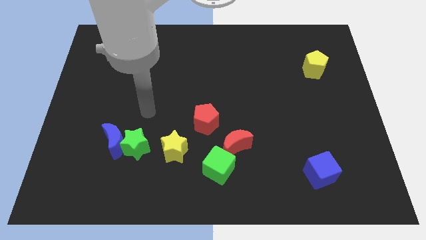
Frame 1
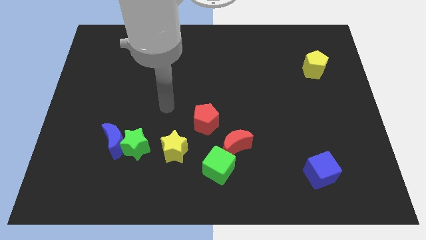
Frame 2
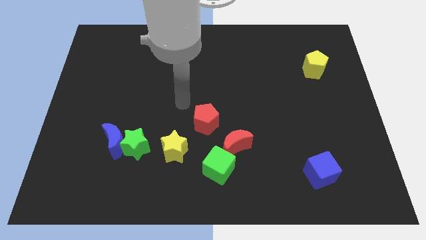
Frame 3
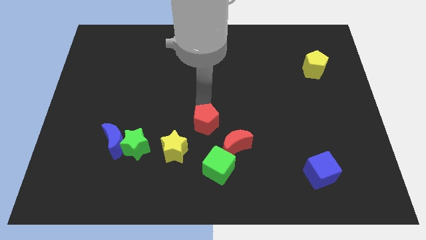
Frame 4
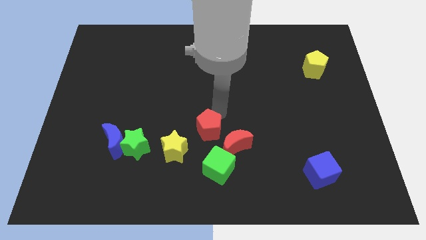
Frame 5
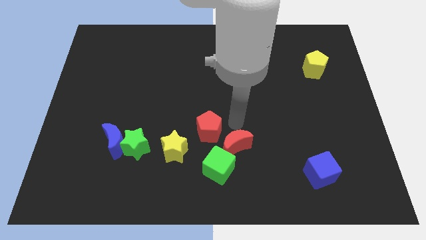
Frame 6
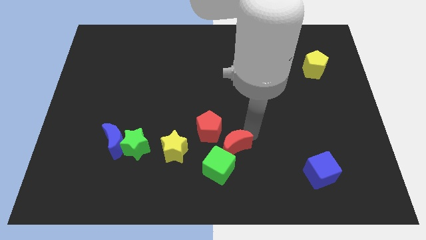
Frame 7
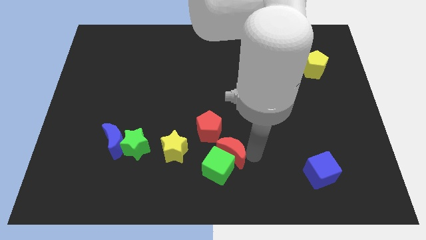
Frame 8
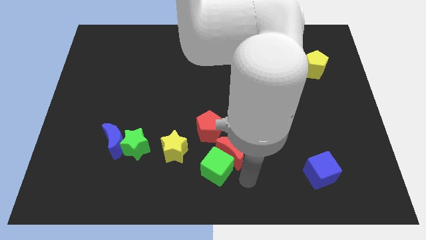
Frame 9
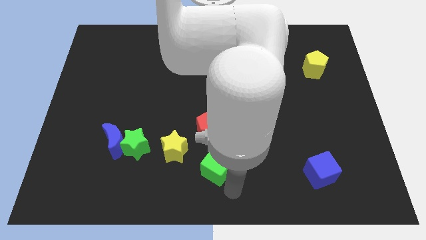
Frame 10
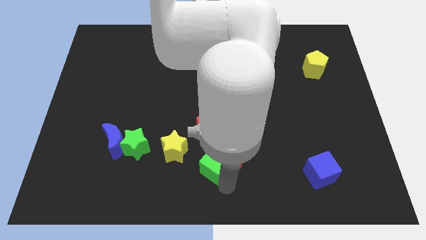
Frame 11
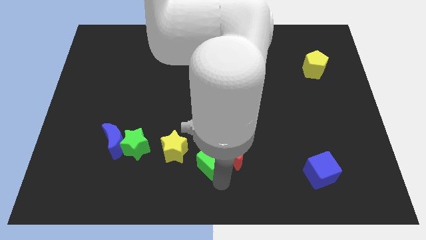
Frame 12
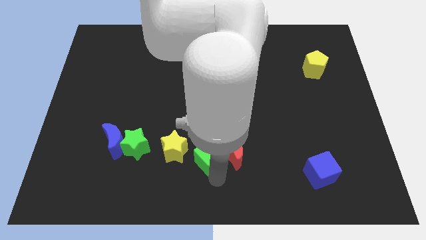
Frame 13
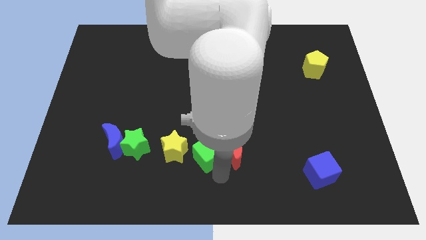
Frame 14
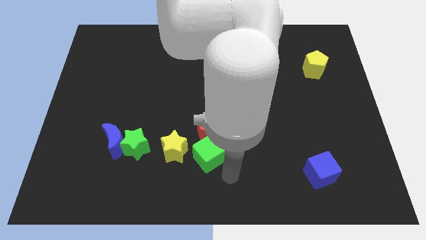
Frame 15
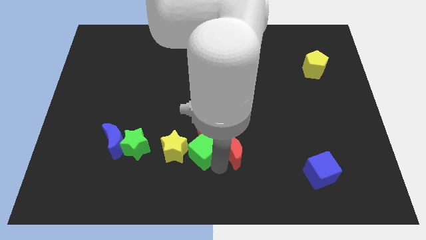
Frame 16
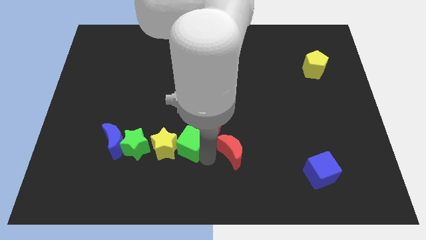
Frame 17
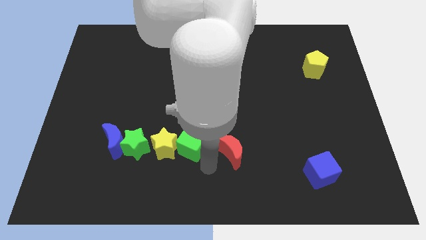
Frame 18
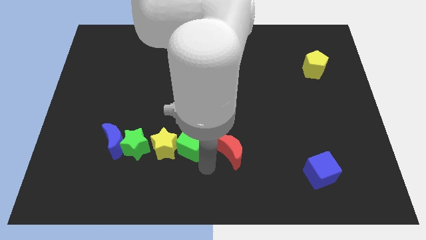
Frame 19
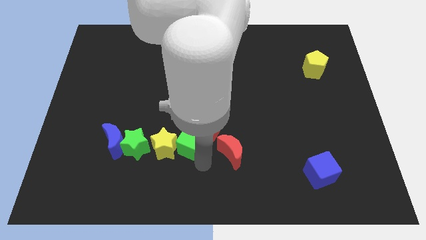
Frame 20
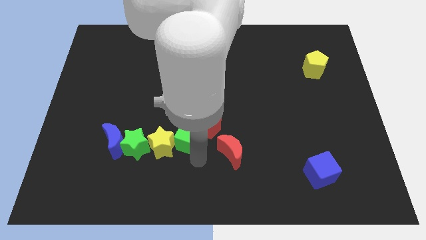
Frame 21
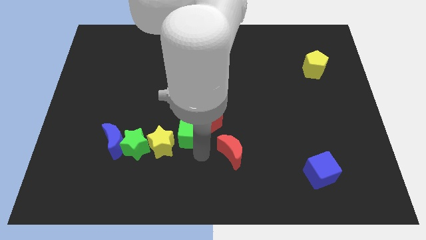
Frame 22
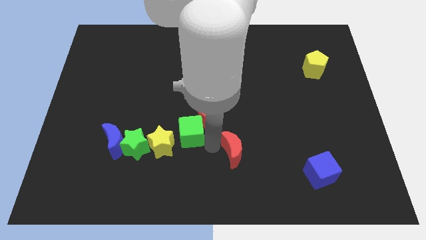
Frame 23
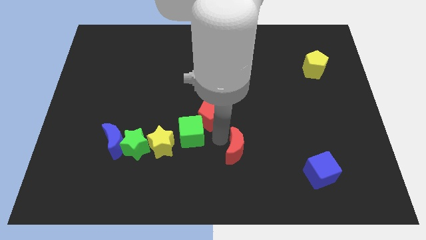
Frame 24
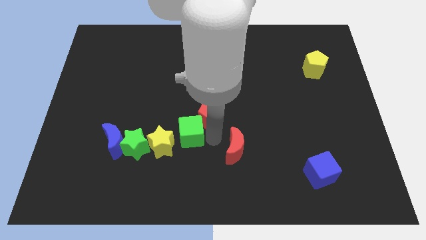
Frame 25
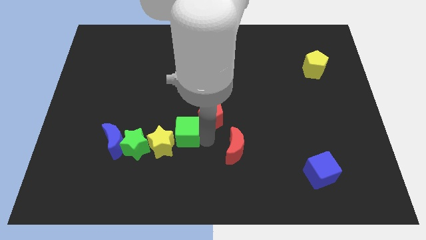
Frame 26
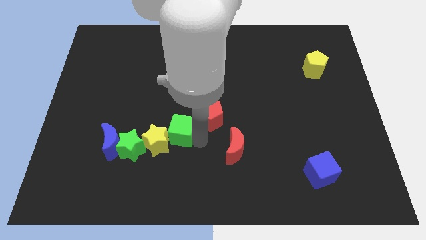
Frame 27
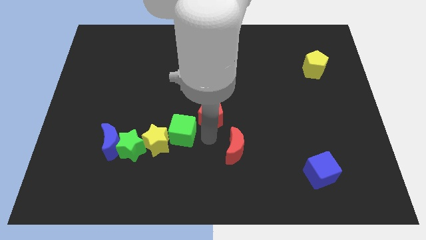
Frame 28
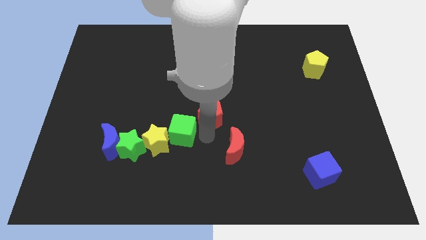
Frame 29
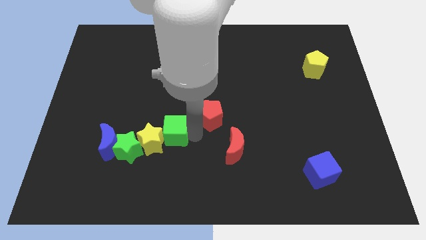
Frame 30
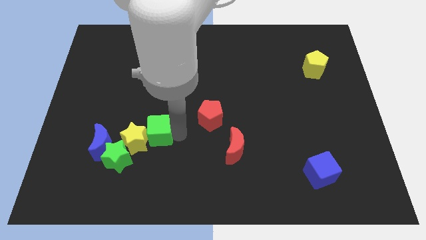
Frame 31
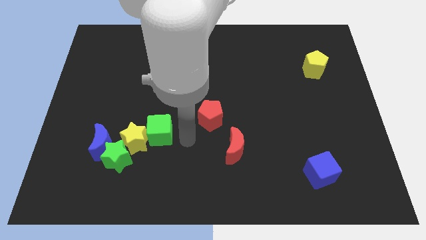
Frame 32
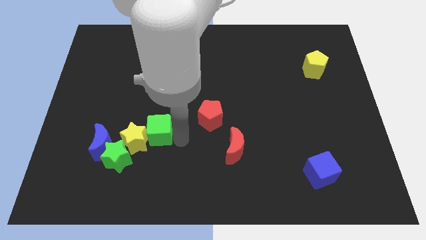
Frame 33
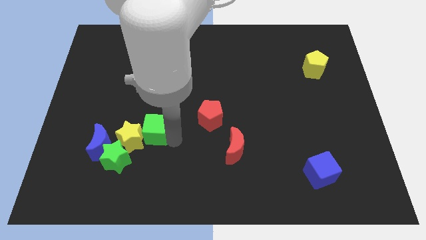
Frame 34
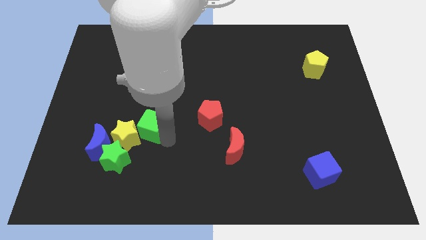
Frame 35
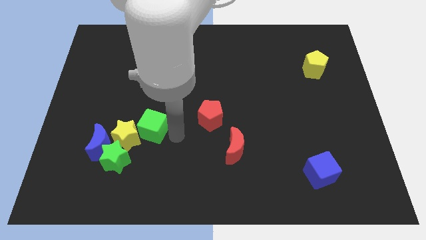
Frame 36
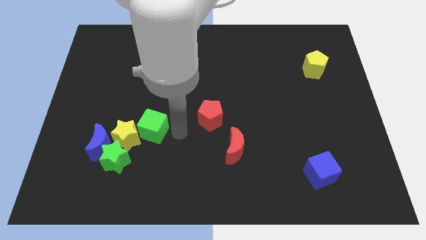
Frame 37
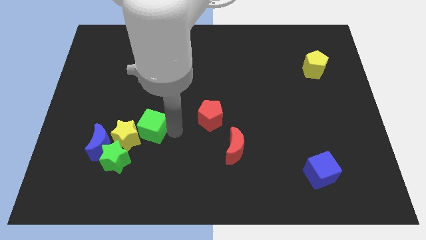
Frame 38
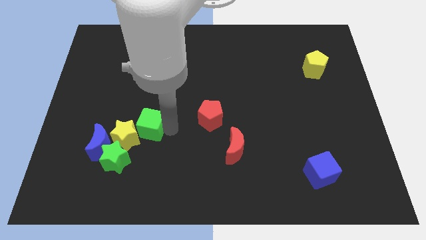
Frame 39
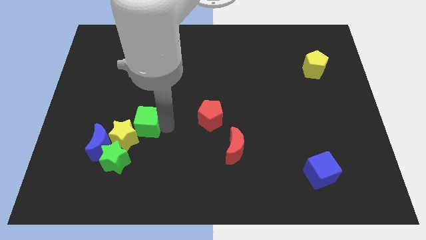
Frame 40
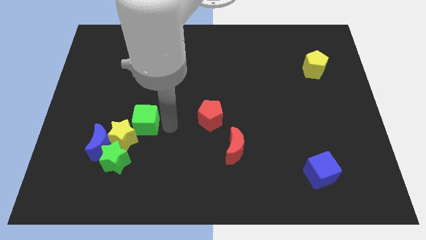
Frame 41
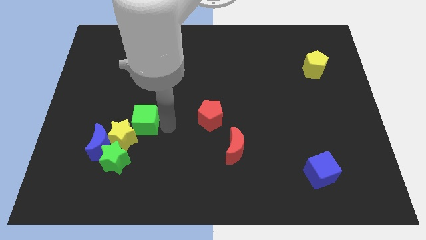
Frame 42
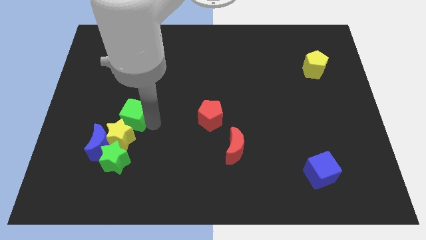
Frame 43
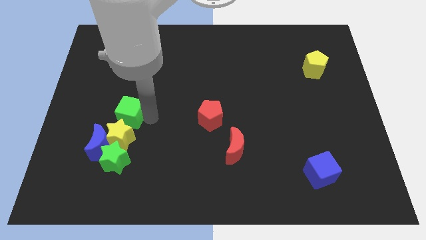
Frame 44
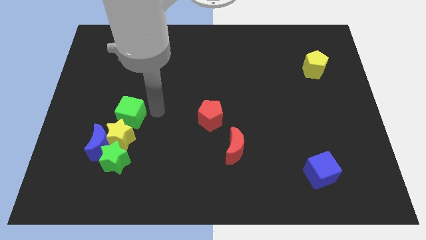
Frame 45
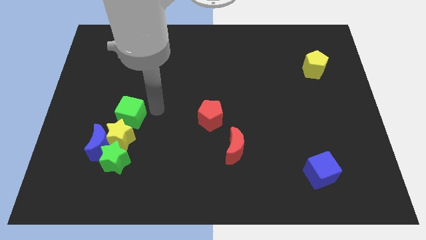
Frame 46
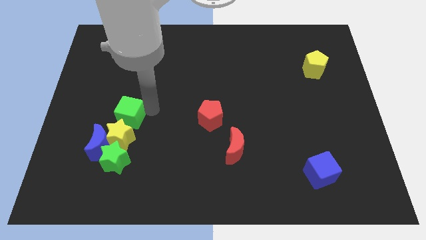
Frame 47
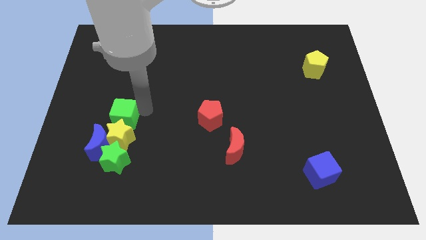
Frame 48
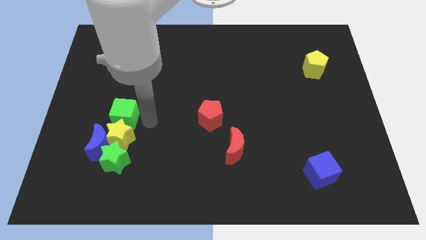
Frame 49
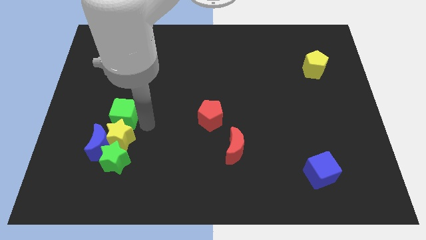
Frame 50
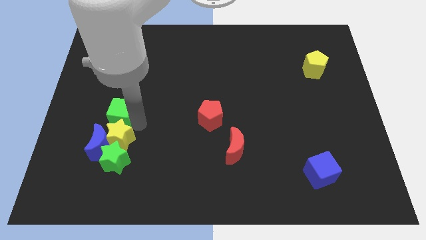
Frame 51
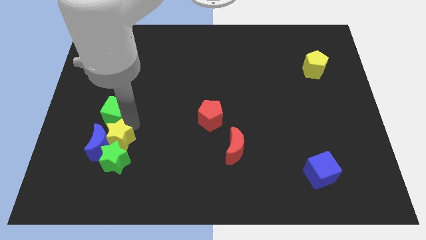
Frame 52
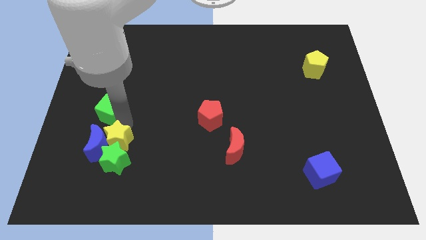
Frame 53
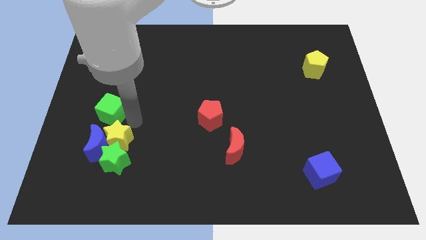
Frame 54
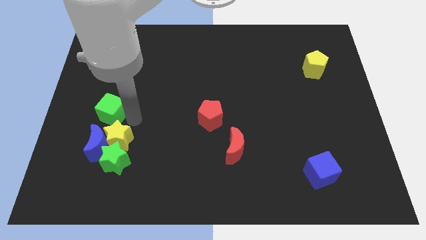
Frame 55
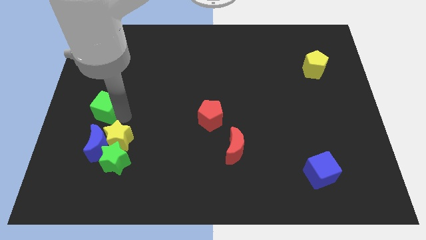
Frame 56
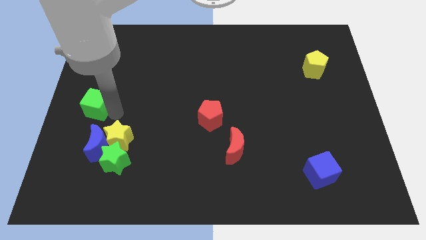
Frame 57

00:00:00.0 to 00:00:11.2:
move the green cube to the left side of the board

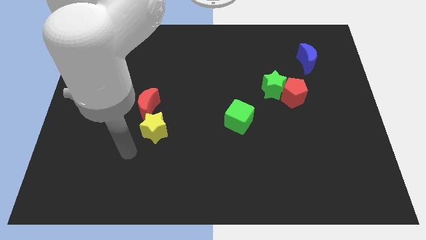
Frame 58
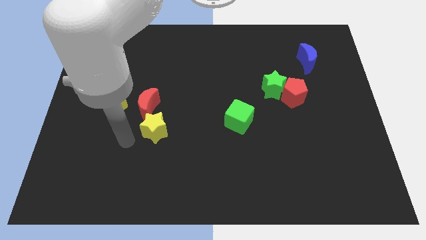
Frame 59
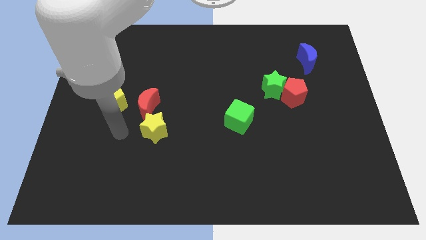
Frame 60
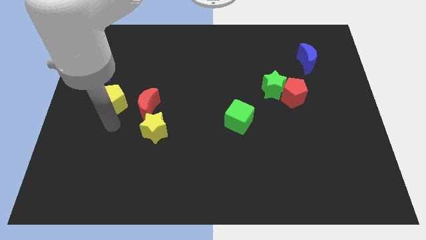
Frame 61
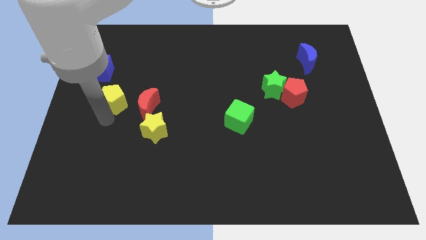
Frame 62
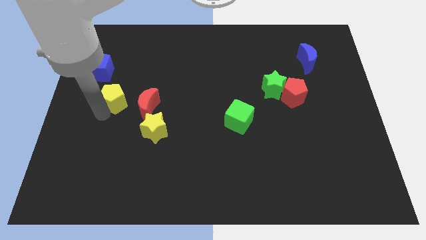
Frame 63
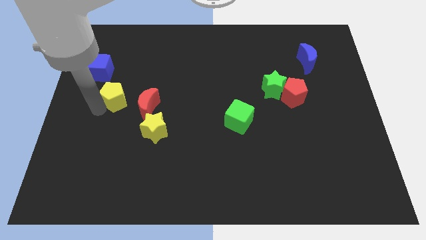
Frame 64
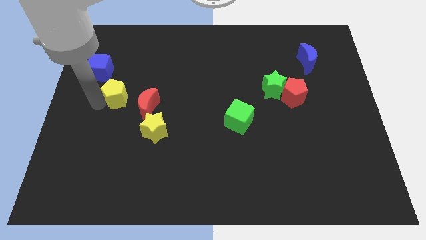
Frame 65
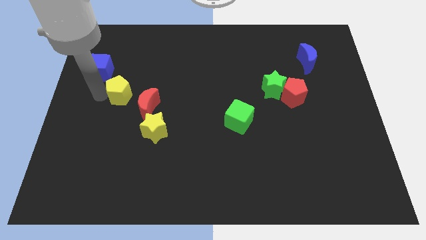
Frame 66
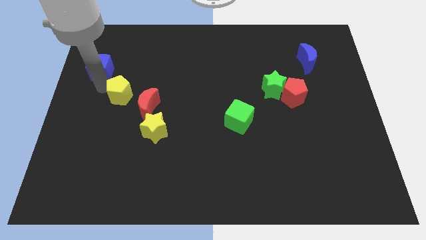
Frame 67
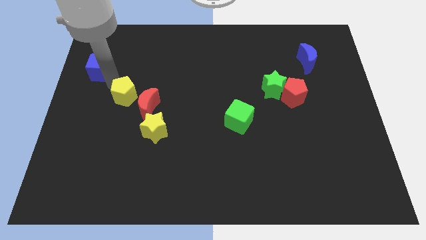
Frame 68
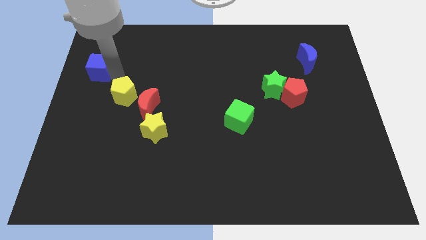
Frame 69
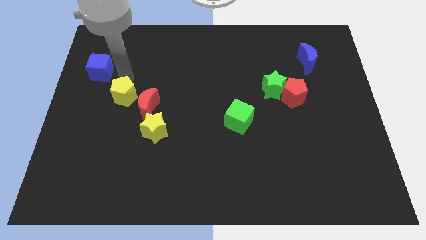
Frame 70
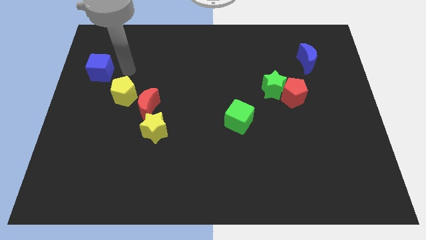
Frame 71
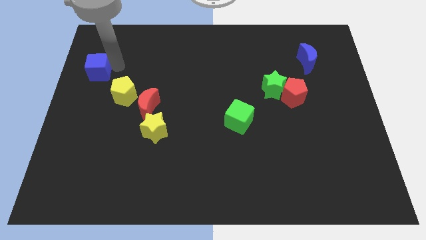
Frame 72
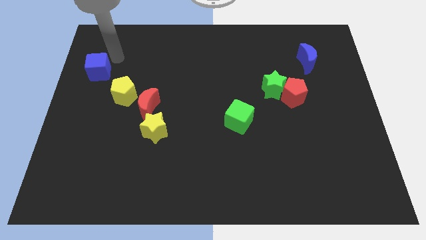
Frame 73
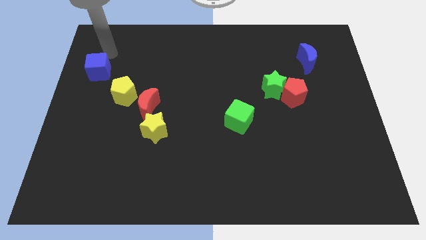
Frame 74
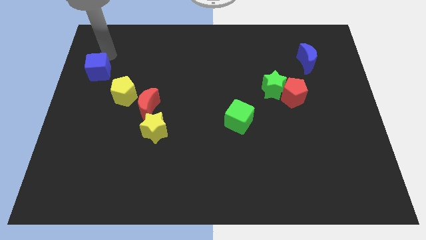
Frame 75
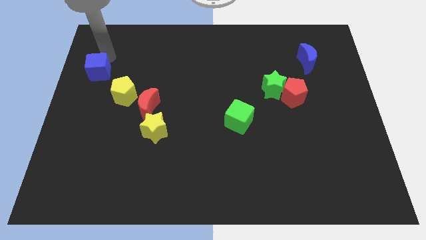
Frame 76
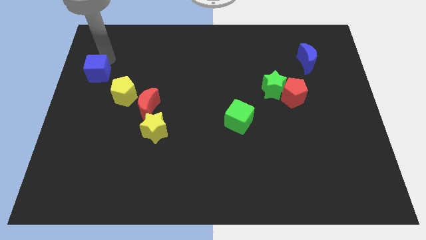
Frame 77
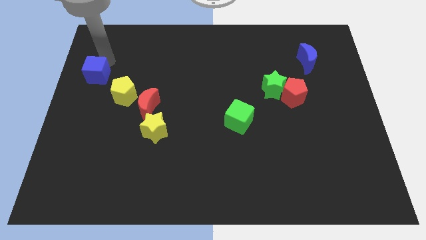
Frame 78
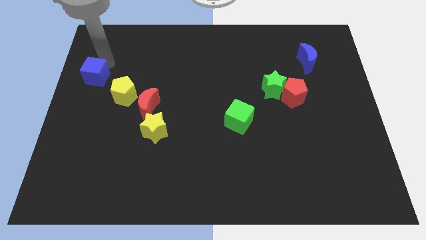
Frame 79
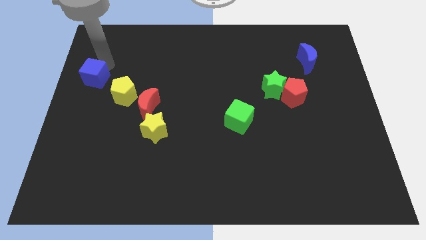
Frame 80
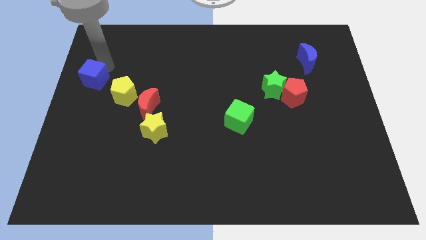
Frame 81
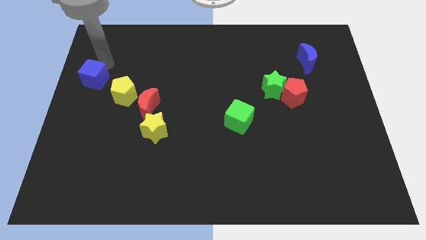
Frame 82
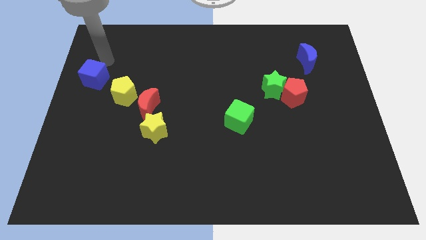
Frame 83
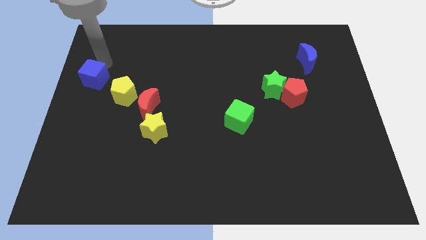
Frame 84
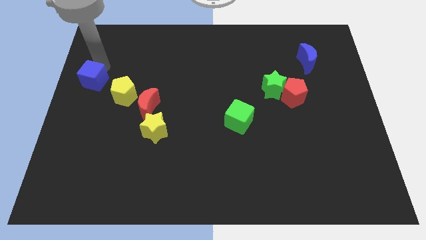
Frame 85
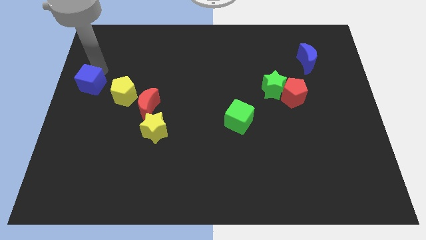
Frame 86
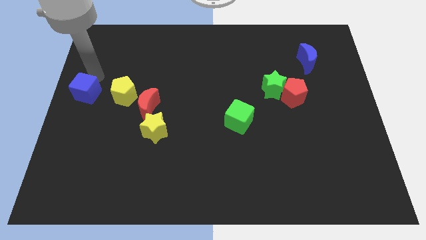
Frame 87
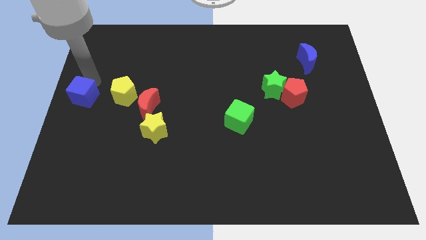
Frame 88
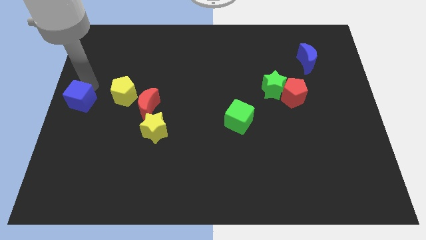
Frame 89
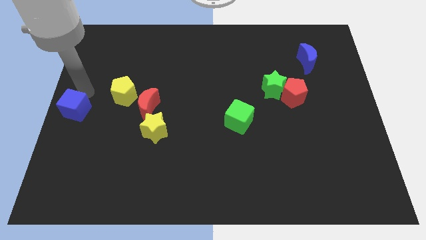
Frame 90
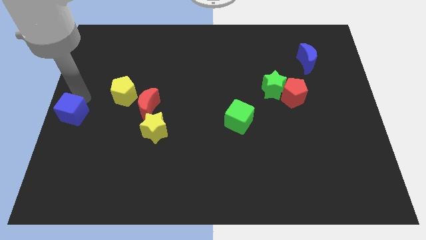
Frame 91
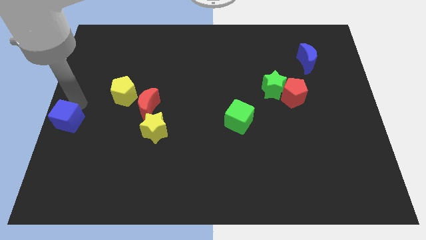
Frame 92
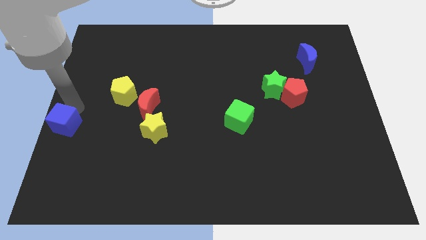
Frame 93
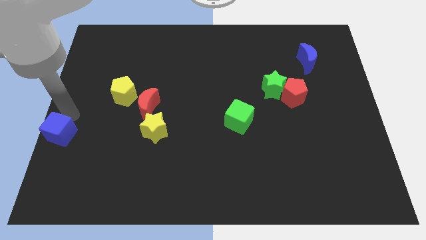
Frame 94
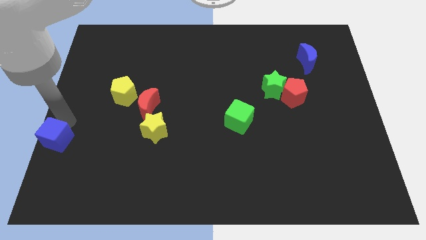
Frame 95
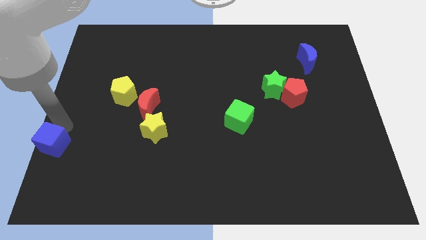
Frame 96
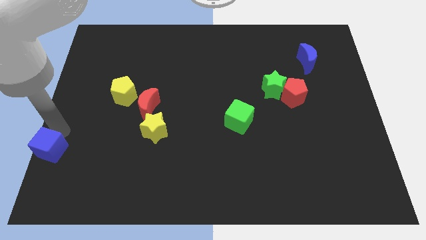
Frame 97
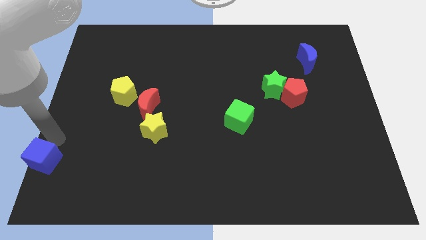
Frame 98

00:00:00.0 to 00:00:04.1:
move the blue cube to the bottom left
